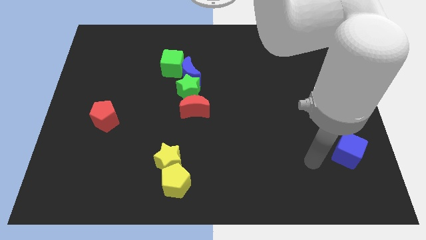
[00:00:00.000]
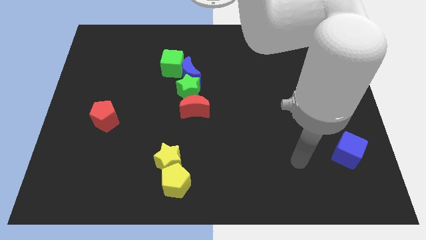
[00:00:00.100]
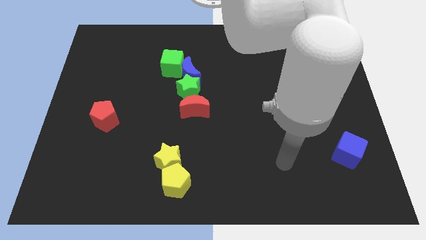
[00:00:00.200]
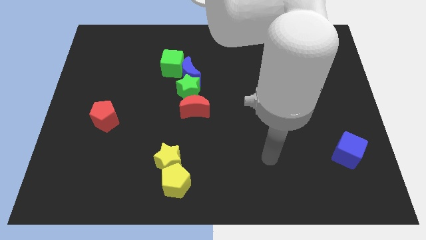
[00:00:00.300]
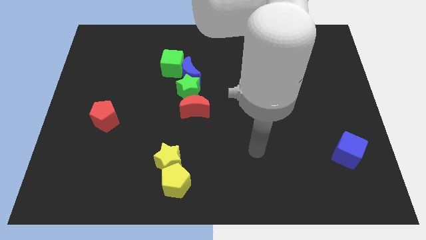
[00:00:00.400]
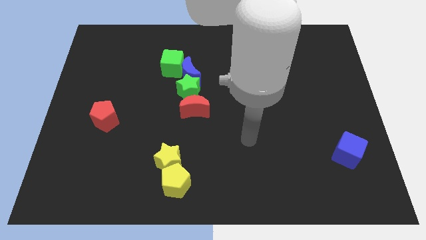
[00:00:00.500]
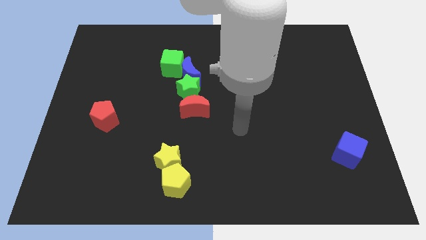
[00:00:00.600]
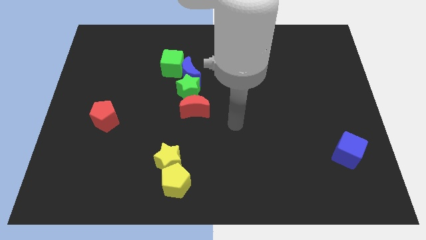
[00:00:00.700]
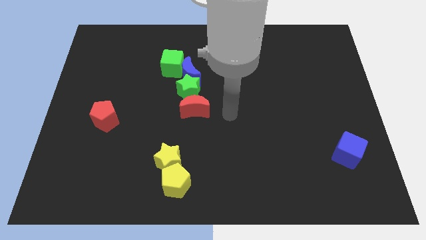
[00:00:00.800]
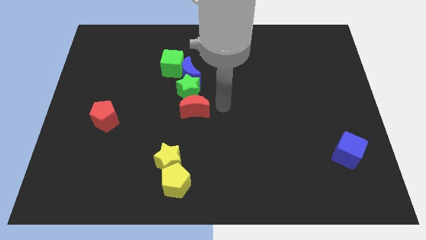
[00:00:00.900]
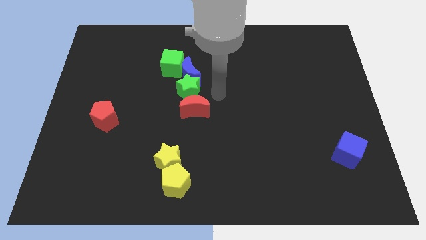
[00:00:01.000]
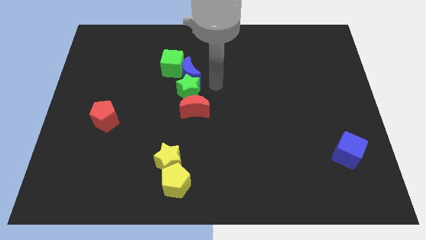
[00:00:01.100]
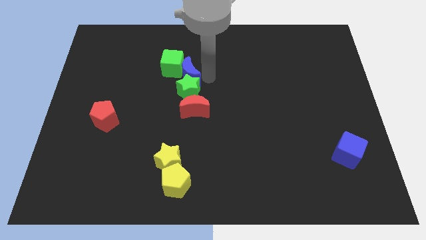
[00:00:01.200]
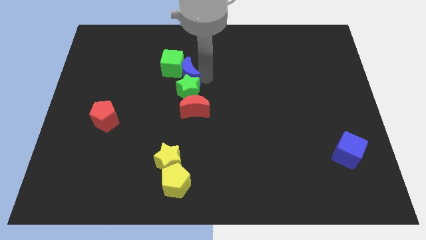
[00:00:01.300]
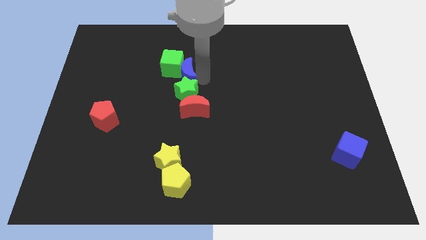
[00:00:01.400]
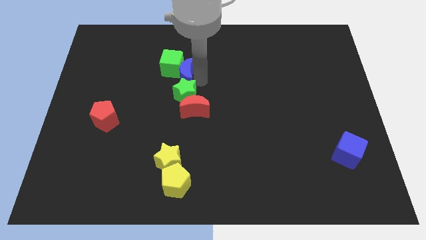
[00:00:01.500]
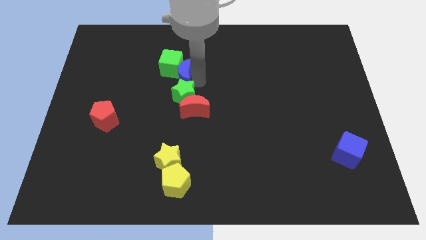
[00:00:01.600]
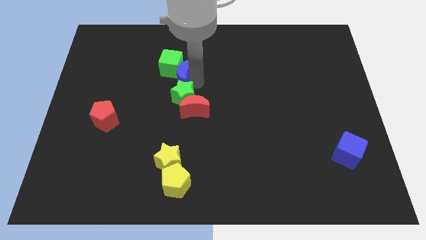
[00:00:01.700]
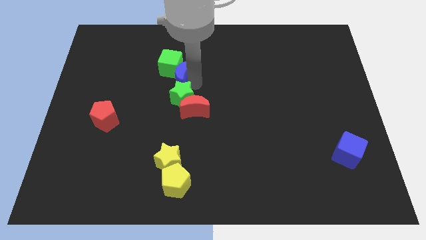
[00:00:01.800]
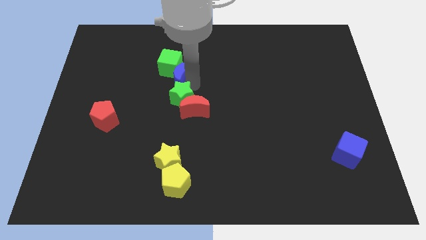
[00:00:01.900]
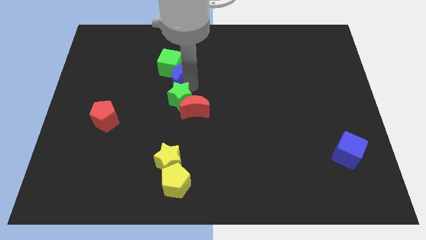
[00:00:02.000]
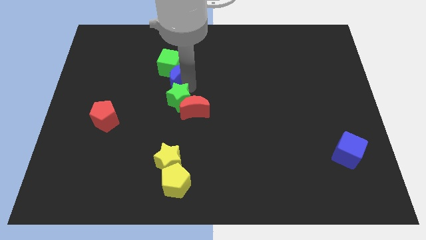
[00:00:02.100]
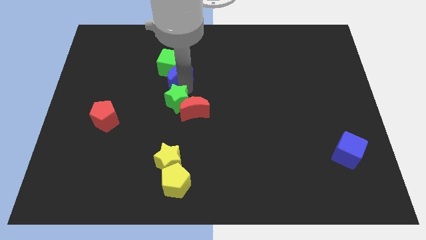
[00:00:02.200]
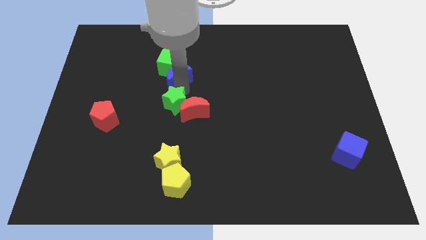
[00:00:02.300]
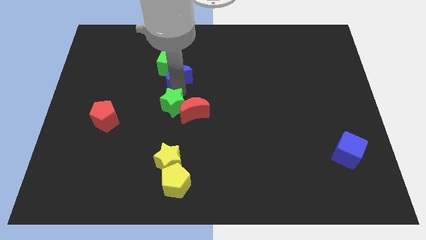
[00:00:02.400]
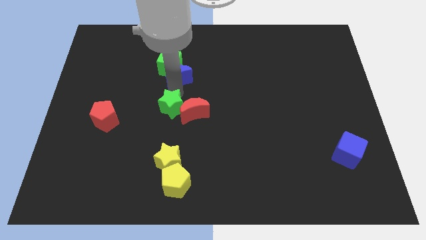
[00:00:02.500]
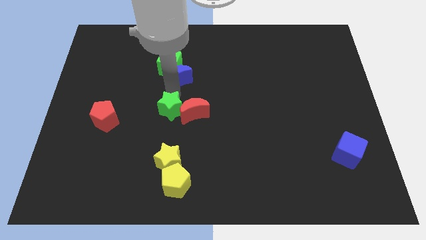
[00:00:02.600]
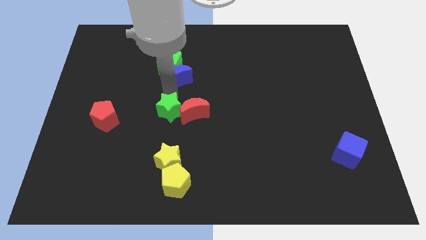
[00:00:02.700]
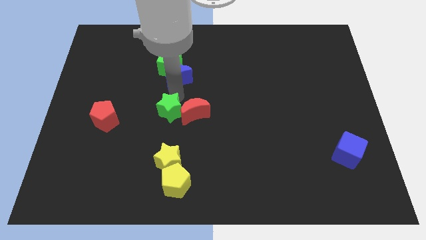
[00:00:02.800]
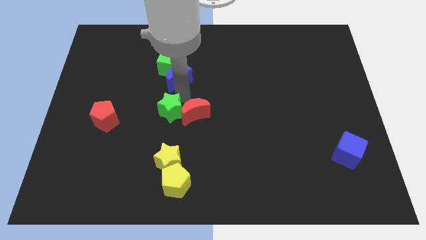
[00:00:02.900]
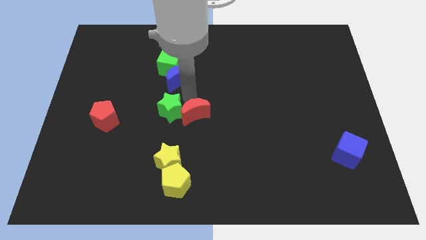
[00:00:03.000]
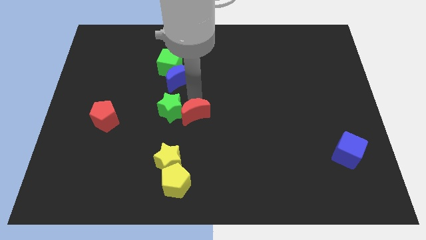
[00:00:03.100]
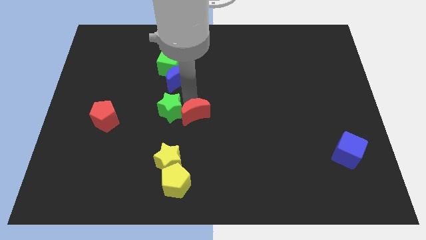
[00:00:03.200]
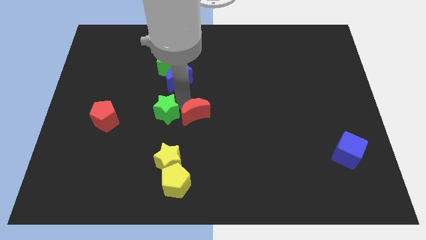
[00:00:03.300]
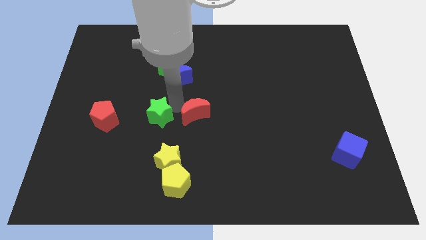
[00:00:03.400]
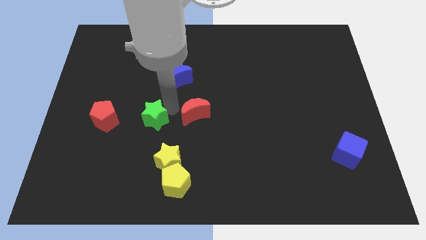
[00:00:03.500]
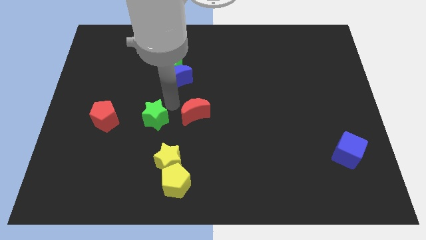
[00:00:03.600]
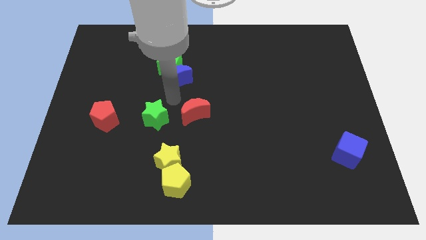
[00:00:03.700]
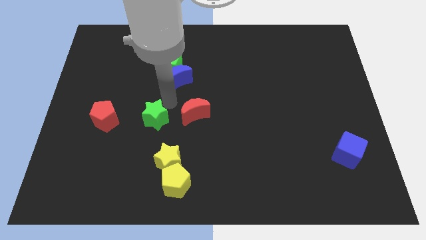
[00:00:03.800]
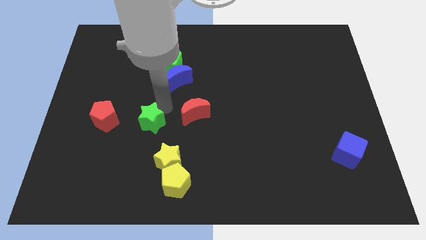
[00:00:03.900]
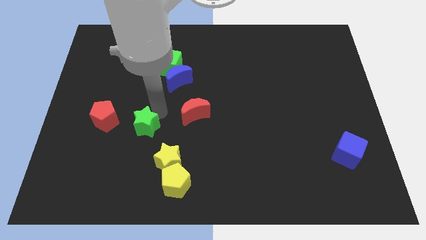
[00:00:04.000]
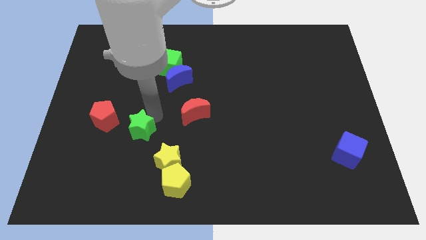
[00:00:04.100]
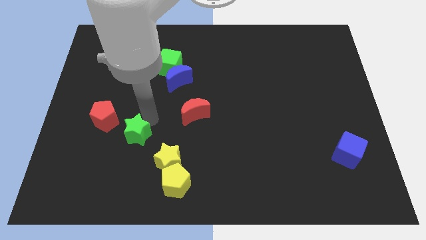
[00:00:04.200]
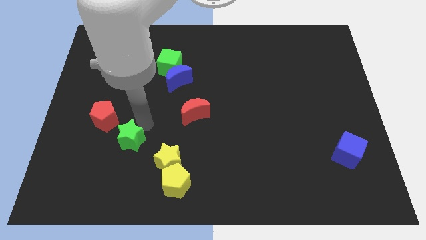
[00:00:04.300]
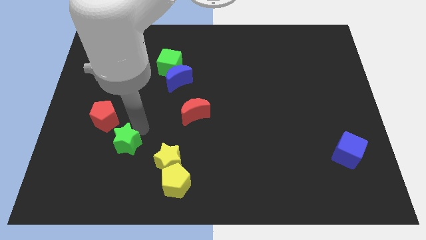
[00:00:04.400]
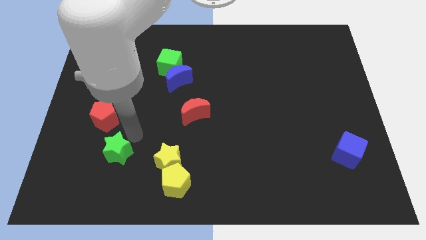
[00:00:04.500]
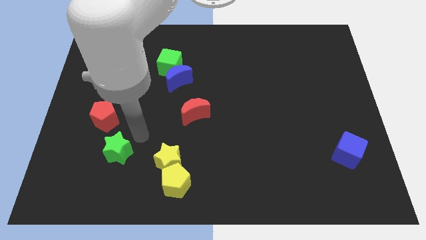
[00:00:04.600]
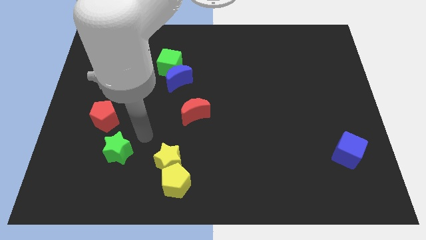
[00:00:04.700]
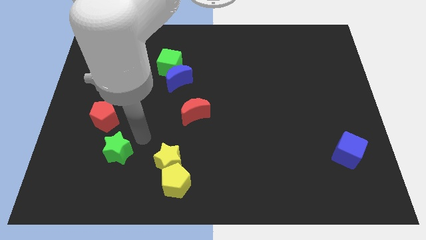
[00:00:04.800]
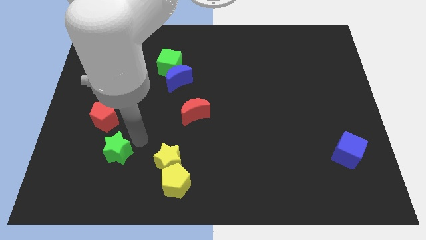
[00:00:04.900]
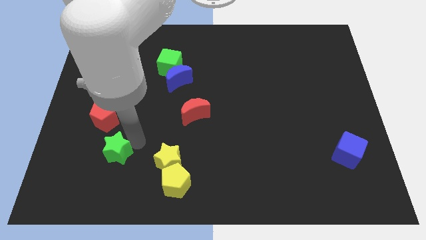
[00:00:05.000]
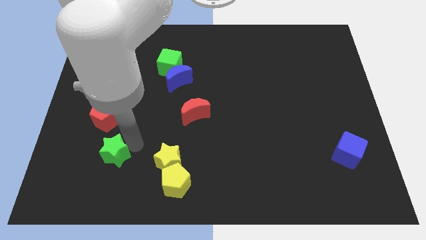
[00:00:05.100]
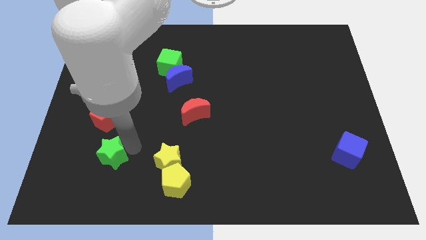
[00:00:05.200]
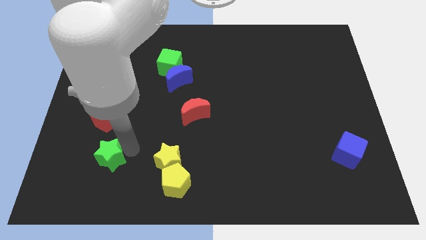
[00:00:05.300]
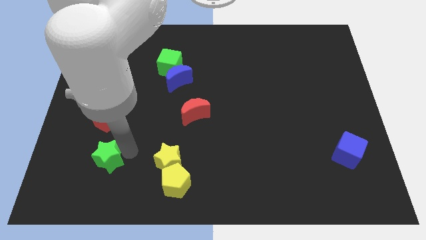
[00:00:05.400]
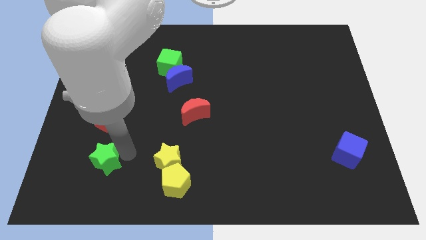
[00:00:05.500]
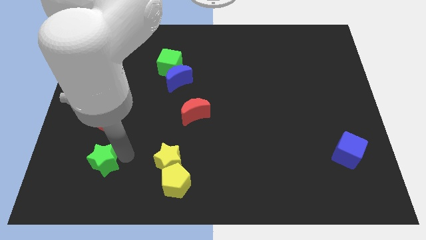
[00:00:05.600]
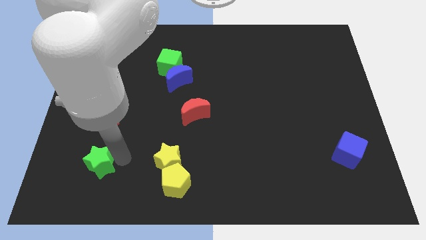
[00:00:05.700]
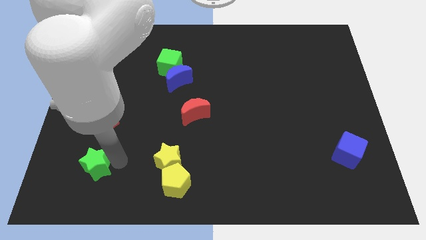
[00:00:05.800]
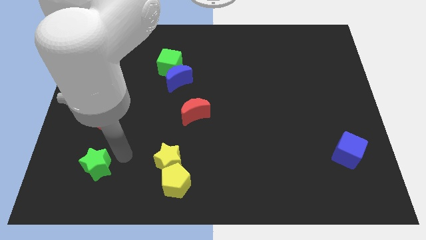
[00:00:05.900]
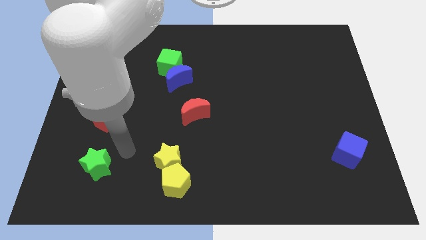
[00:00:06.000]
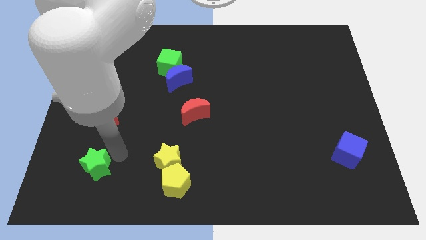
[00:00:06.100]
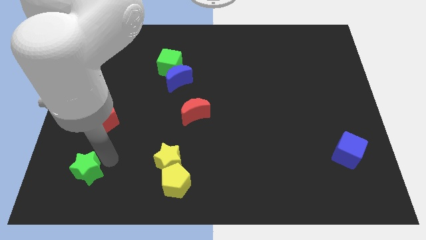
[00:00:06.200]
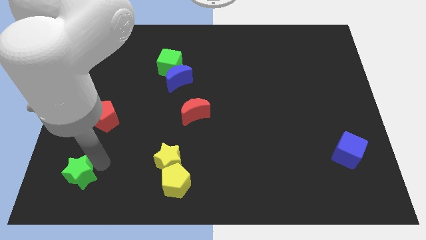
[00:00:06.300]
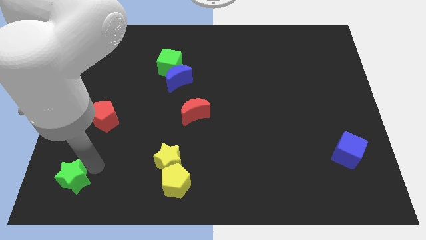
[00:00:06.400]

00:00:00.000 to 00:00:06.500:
put the green star to the bottom left of the board

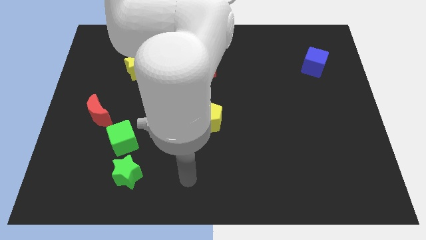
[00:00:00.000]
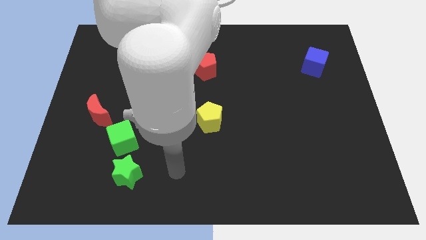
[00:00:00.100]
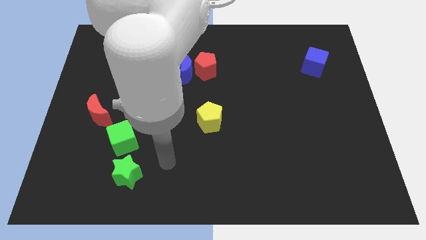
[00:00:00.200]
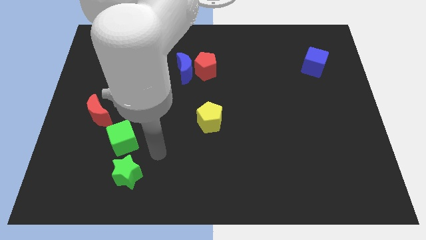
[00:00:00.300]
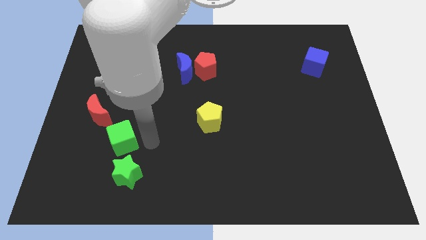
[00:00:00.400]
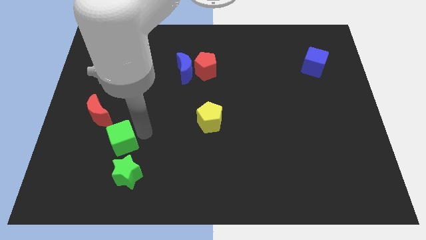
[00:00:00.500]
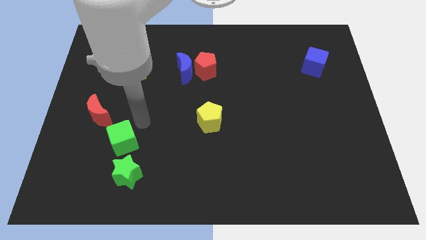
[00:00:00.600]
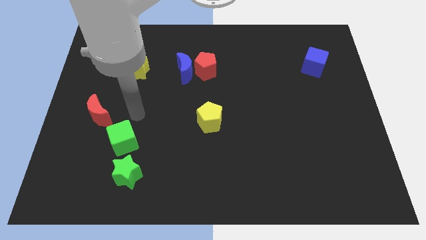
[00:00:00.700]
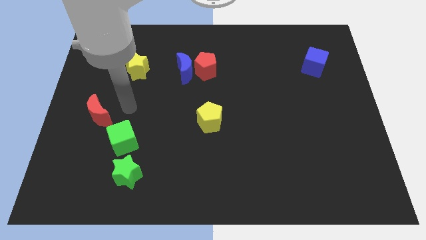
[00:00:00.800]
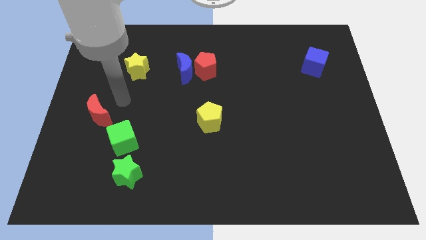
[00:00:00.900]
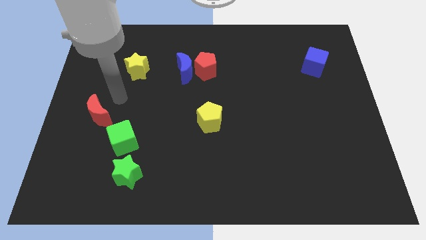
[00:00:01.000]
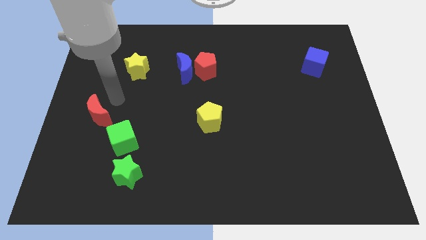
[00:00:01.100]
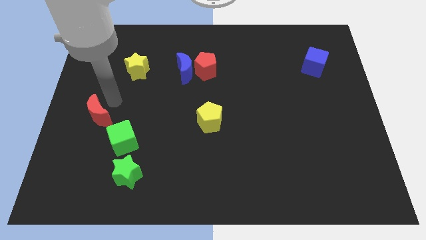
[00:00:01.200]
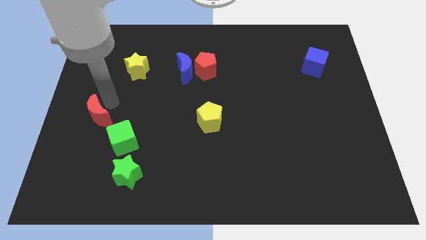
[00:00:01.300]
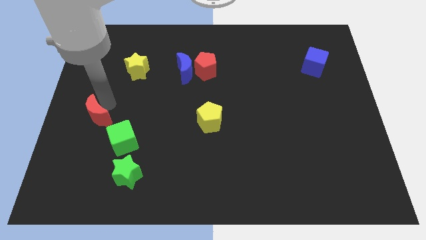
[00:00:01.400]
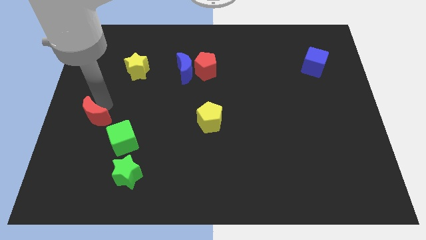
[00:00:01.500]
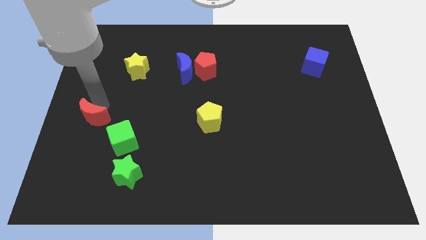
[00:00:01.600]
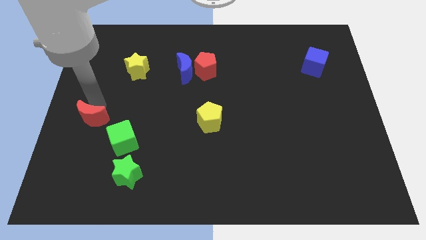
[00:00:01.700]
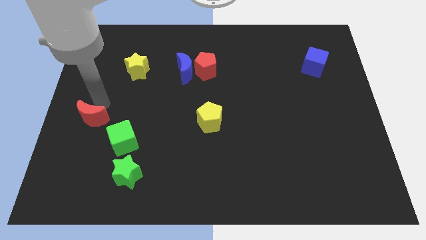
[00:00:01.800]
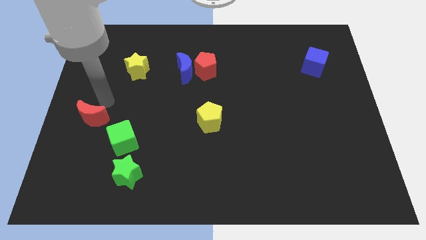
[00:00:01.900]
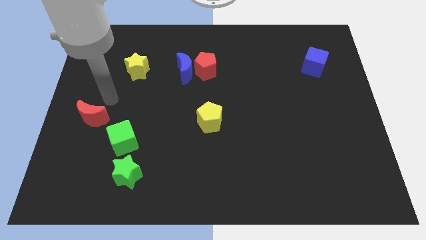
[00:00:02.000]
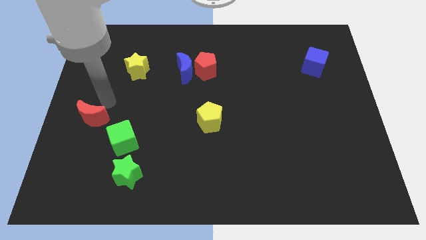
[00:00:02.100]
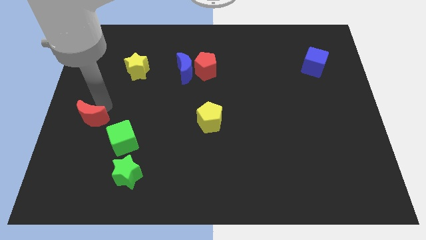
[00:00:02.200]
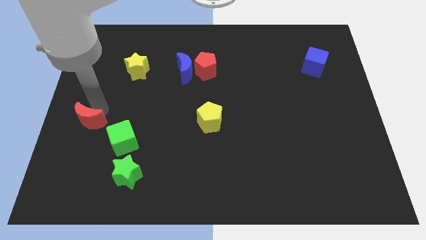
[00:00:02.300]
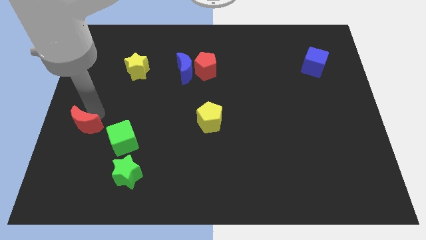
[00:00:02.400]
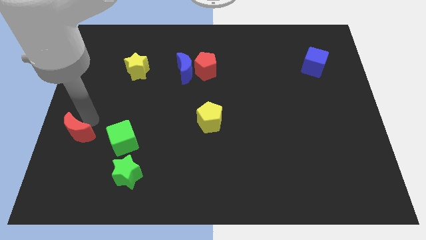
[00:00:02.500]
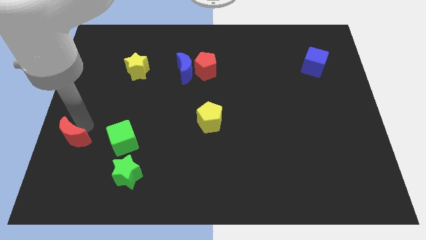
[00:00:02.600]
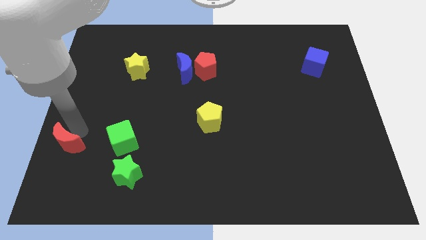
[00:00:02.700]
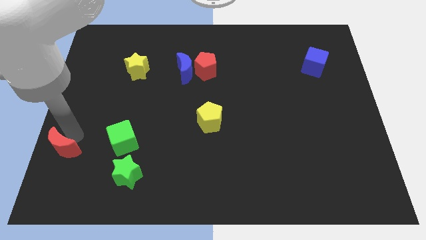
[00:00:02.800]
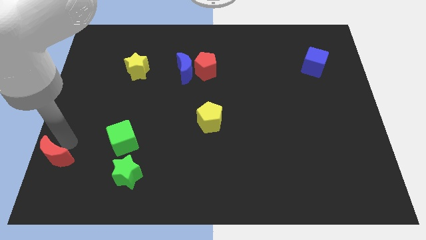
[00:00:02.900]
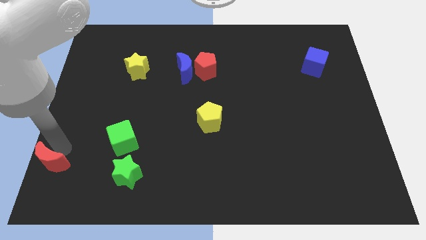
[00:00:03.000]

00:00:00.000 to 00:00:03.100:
push the red moon to the bottom left of the board
